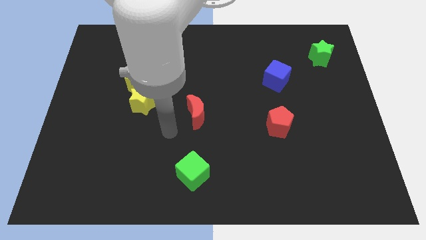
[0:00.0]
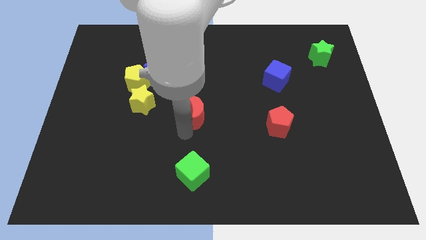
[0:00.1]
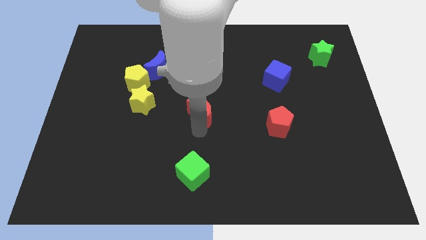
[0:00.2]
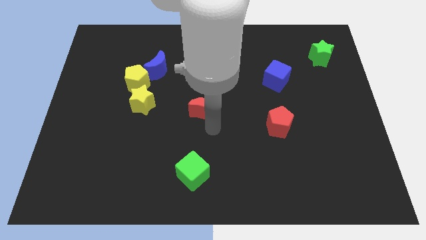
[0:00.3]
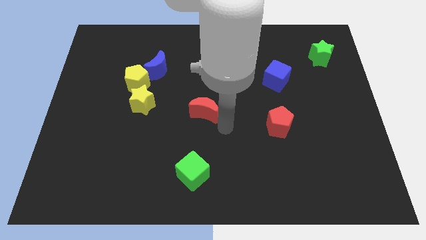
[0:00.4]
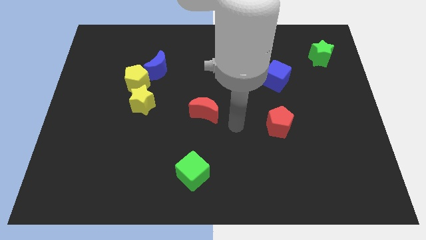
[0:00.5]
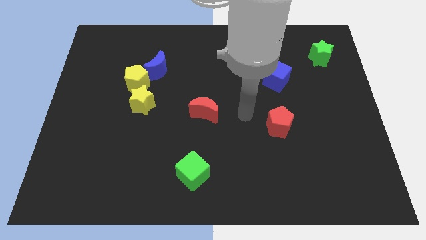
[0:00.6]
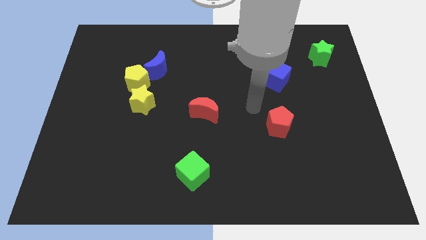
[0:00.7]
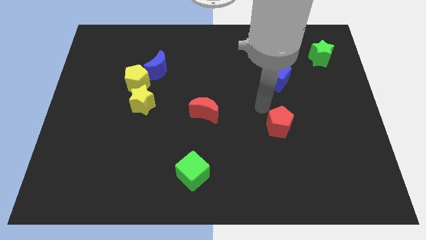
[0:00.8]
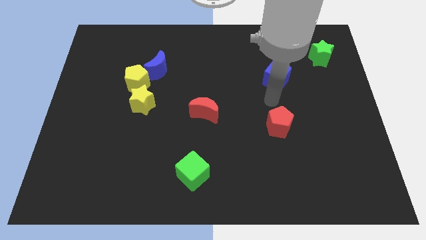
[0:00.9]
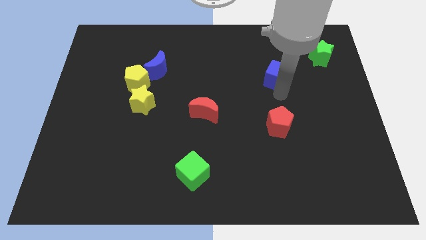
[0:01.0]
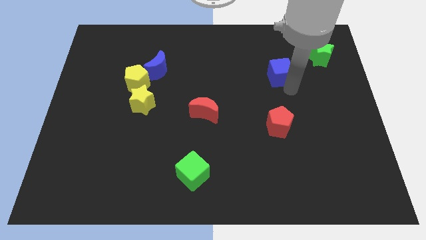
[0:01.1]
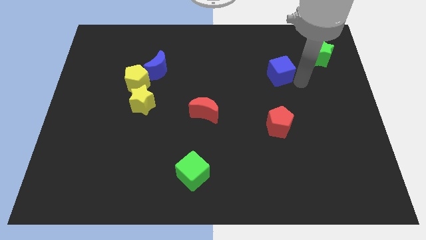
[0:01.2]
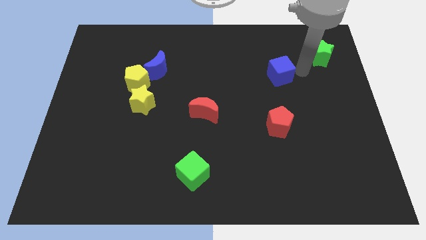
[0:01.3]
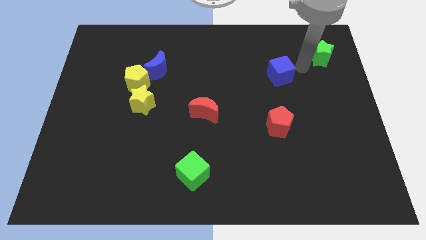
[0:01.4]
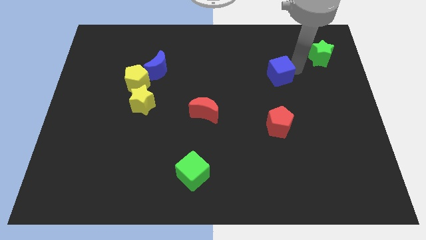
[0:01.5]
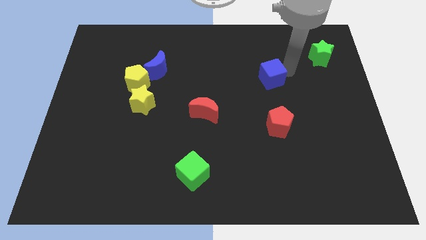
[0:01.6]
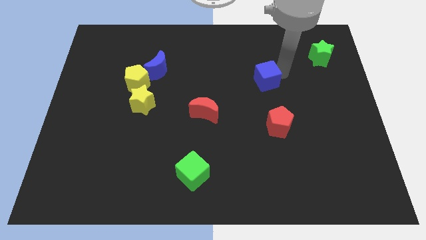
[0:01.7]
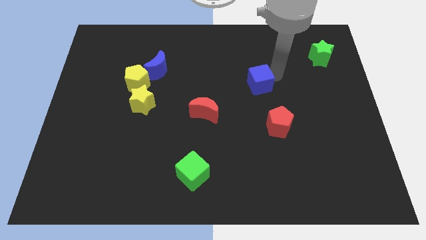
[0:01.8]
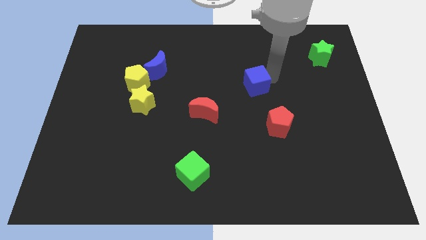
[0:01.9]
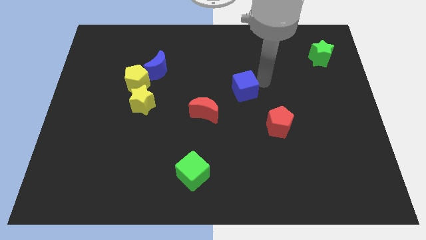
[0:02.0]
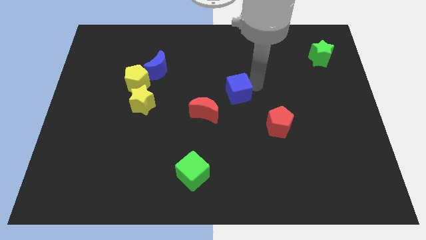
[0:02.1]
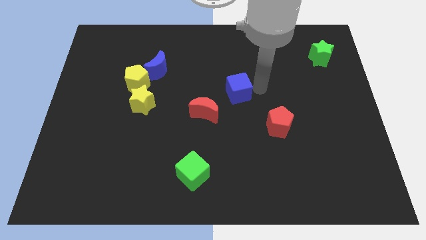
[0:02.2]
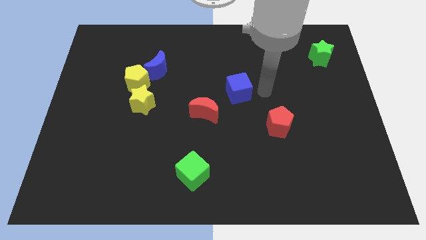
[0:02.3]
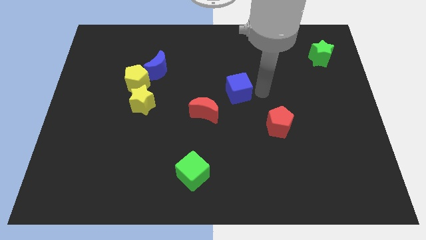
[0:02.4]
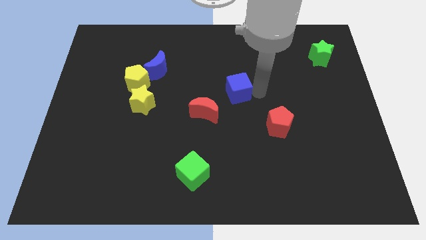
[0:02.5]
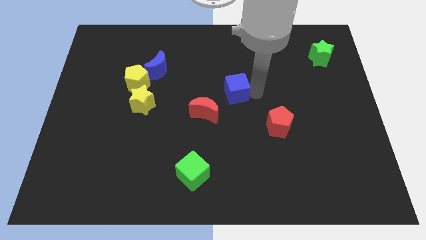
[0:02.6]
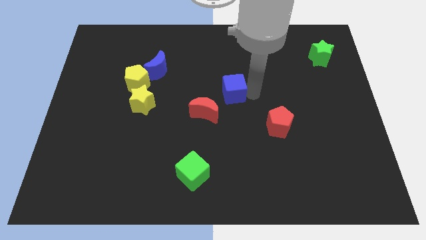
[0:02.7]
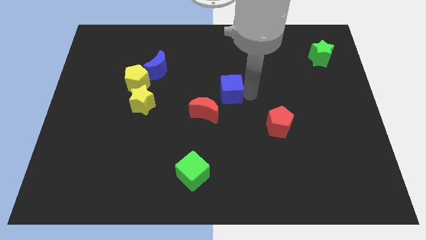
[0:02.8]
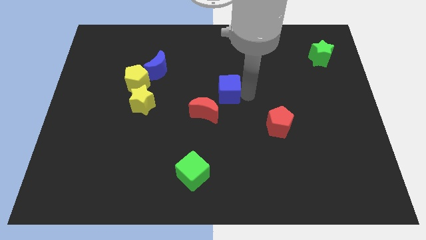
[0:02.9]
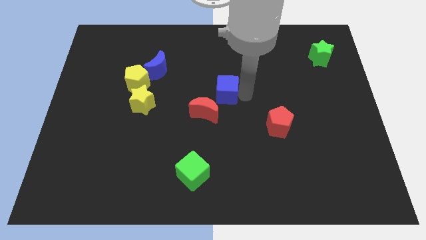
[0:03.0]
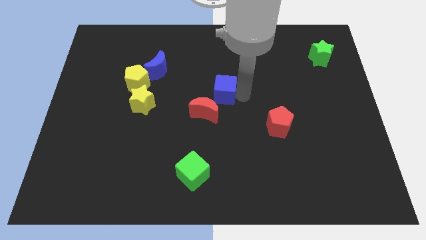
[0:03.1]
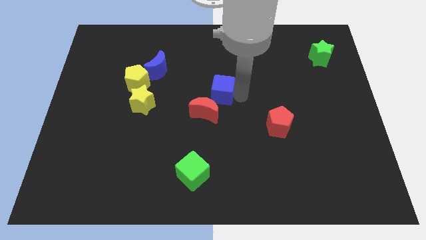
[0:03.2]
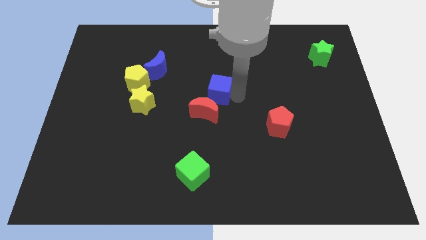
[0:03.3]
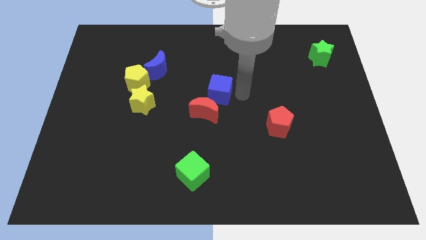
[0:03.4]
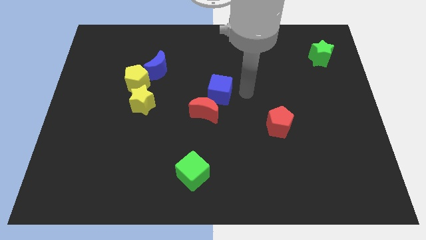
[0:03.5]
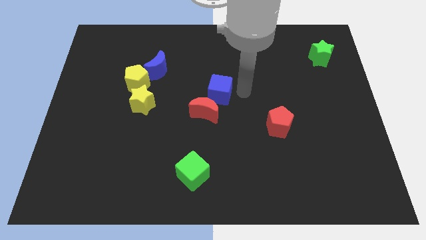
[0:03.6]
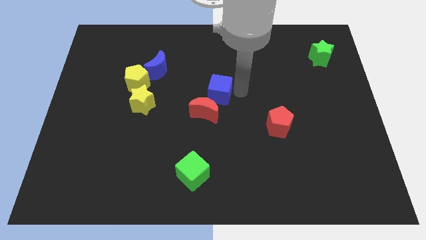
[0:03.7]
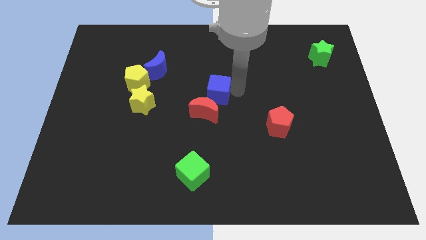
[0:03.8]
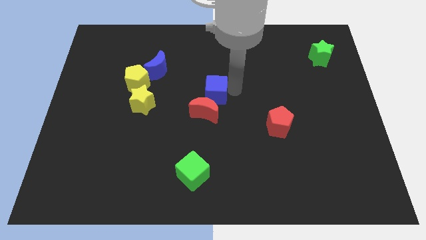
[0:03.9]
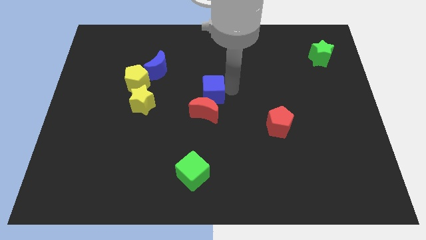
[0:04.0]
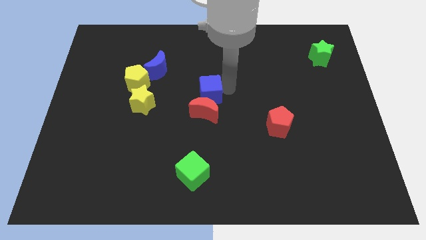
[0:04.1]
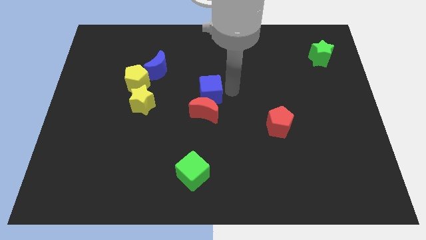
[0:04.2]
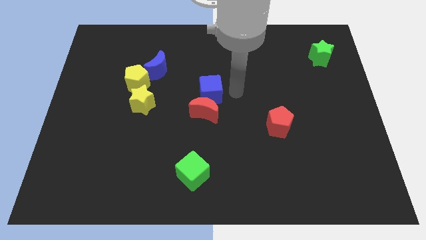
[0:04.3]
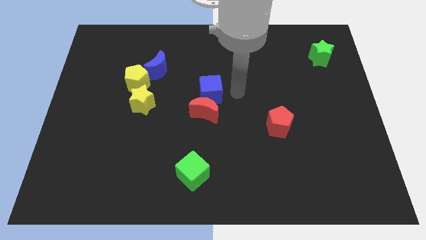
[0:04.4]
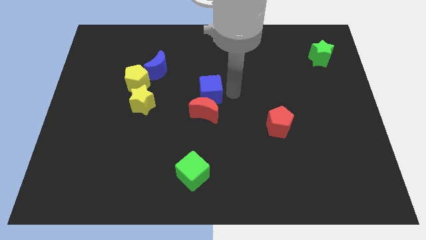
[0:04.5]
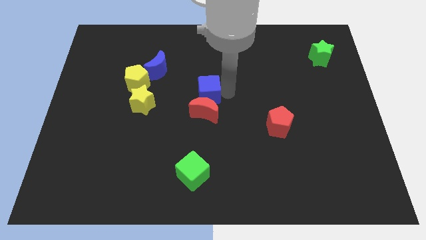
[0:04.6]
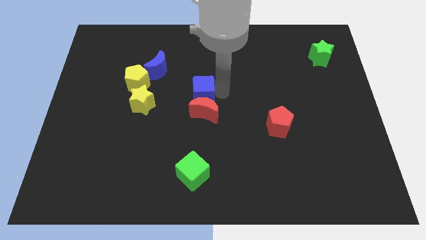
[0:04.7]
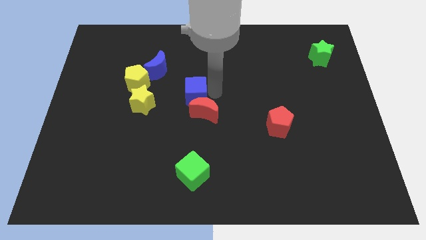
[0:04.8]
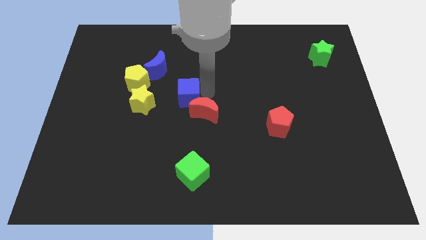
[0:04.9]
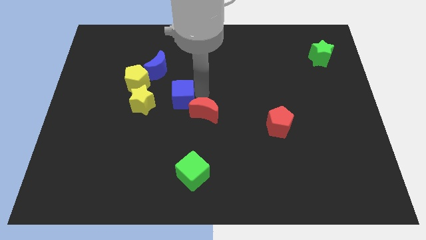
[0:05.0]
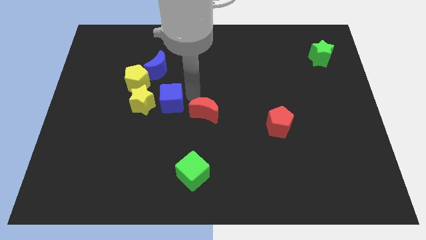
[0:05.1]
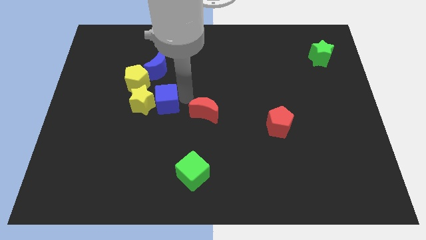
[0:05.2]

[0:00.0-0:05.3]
put the blue cube to the yellow star

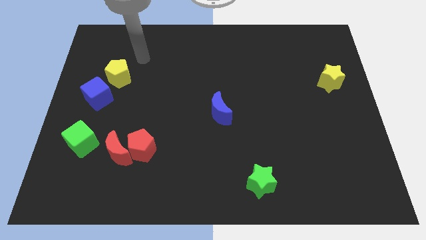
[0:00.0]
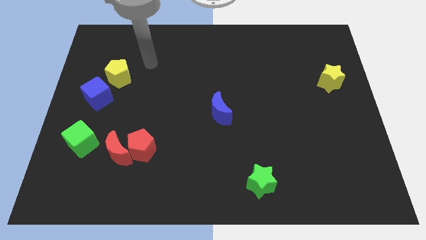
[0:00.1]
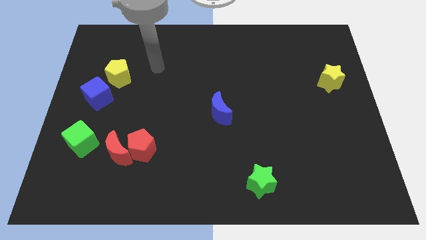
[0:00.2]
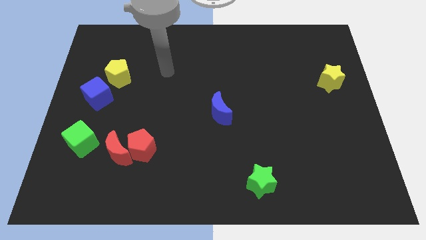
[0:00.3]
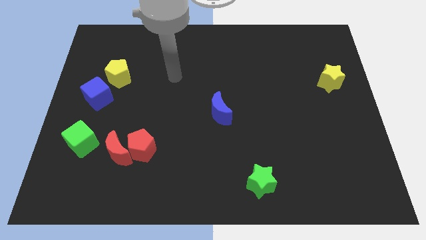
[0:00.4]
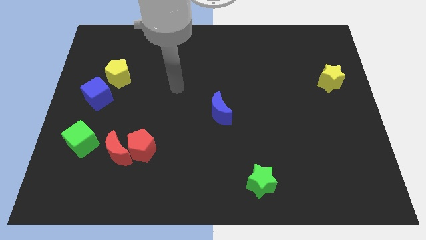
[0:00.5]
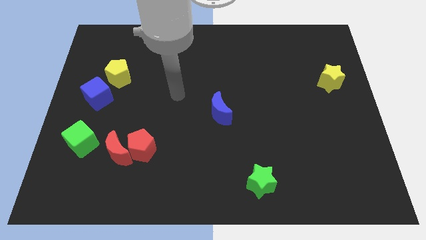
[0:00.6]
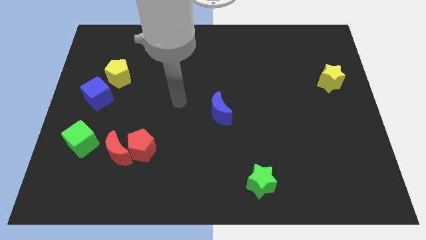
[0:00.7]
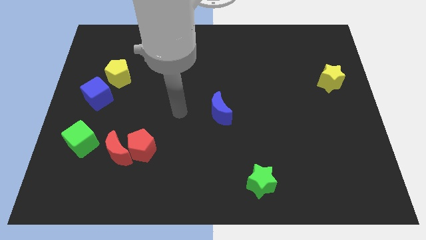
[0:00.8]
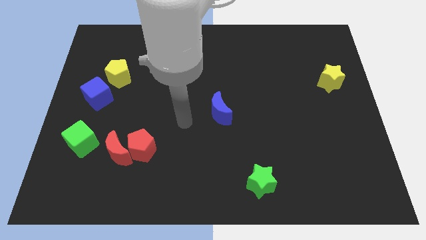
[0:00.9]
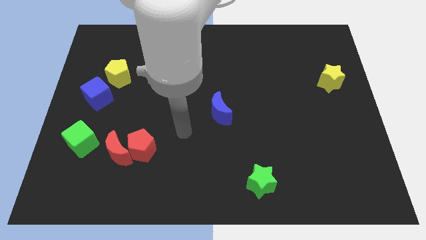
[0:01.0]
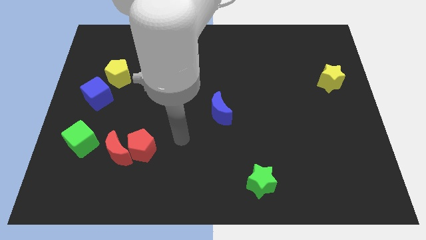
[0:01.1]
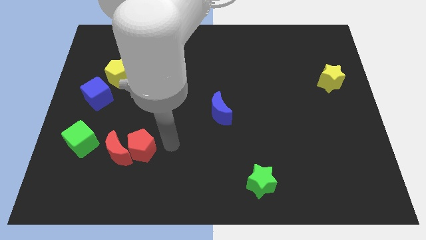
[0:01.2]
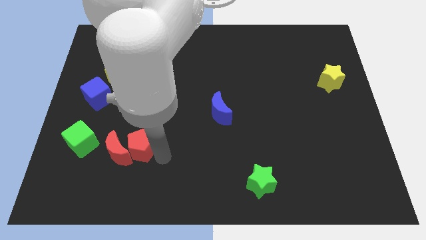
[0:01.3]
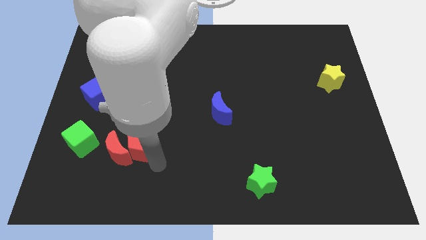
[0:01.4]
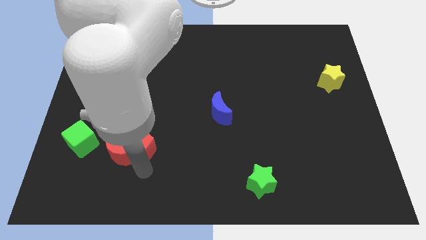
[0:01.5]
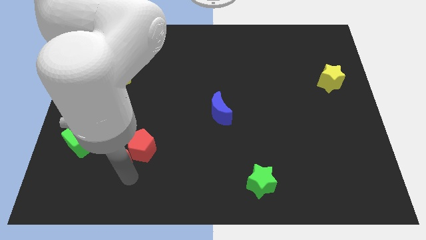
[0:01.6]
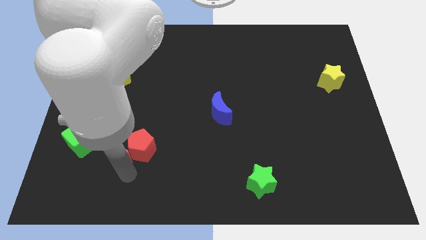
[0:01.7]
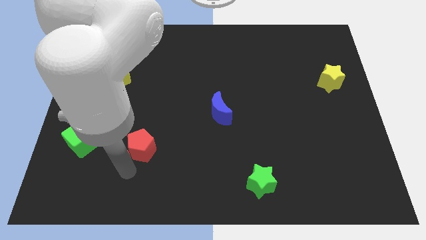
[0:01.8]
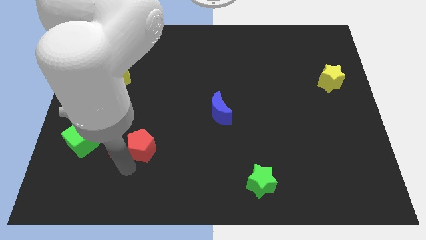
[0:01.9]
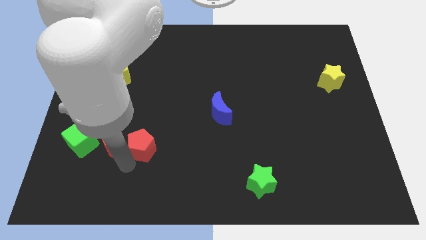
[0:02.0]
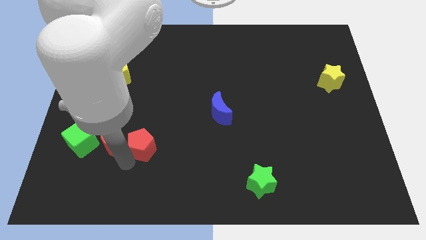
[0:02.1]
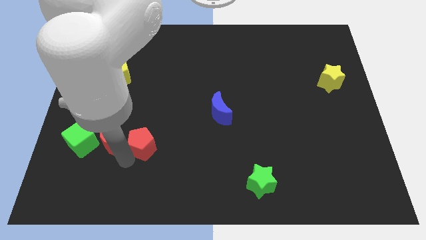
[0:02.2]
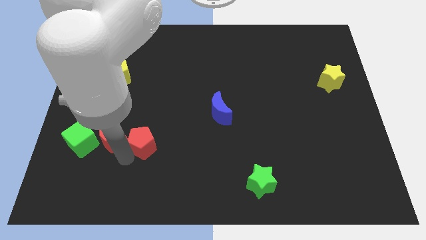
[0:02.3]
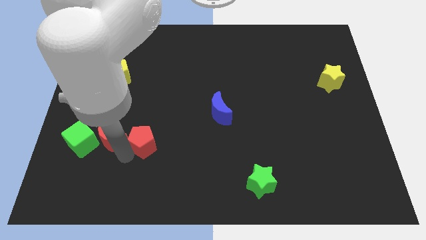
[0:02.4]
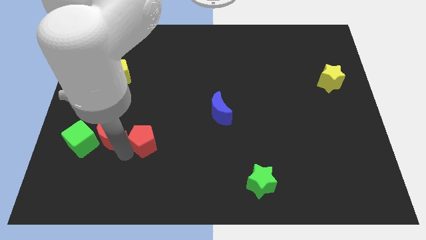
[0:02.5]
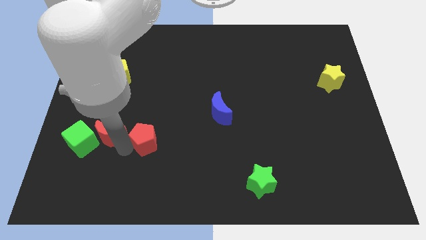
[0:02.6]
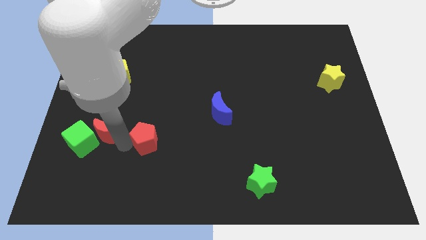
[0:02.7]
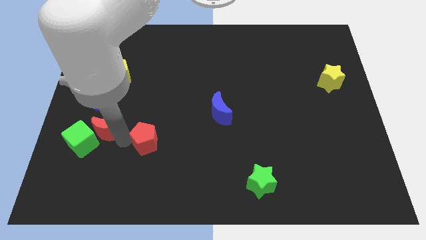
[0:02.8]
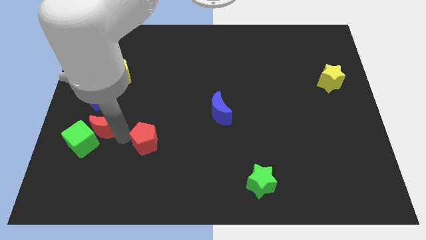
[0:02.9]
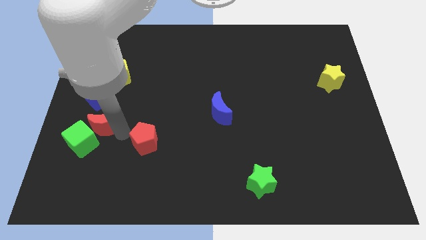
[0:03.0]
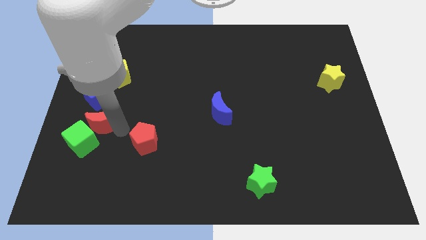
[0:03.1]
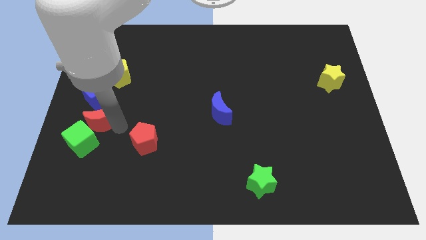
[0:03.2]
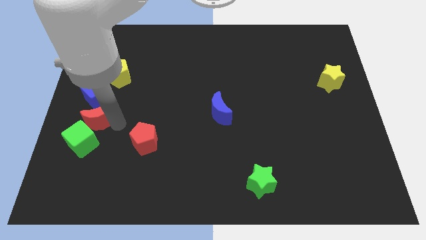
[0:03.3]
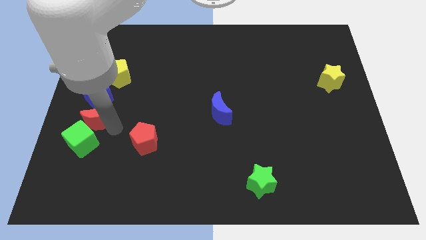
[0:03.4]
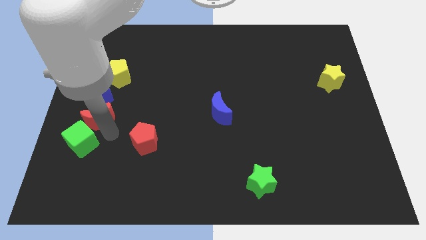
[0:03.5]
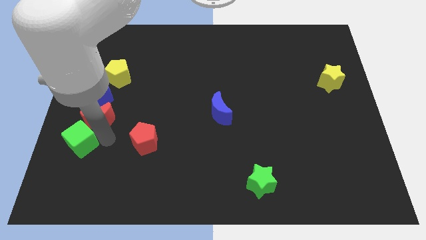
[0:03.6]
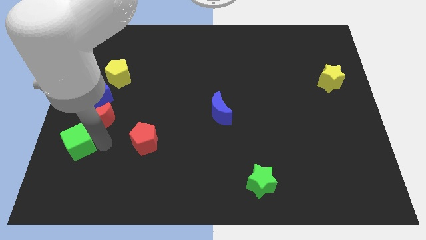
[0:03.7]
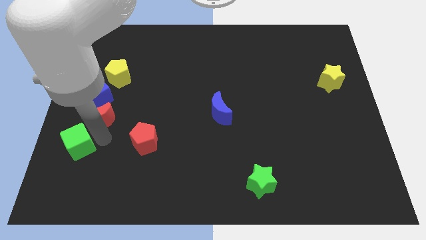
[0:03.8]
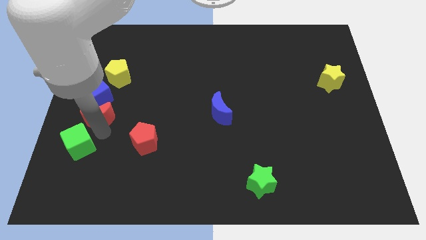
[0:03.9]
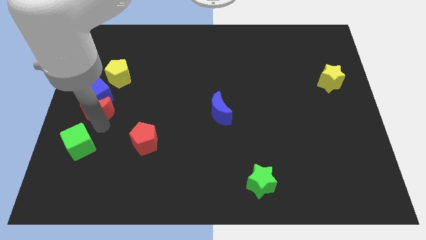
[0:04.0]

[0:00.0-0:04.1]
put the red moon towards the blue cube
